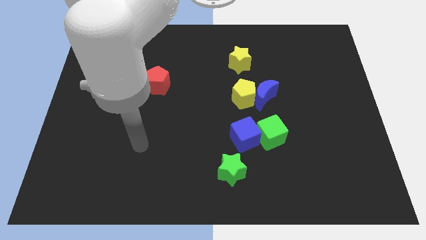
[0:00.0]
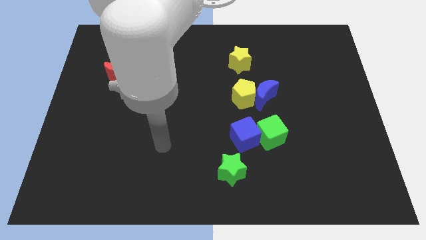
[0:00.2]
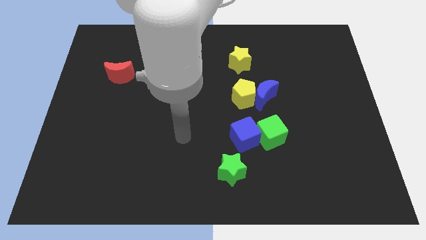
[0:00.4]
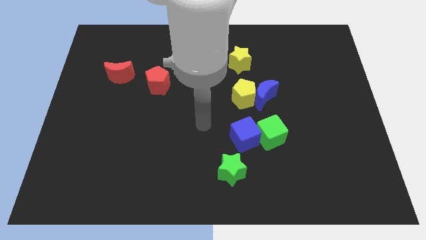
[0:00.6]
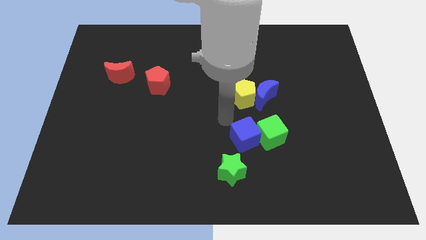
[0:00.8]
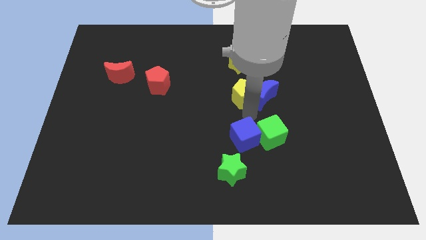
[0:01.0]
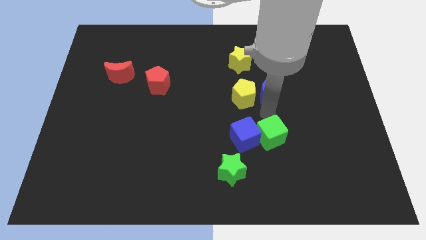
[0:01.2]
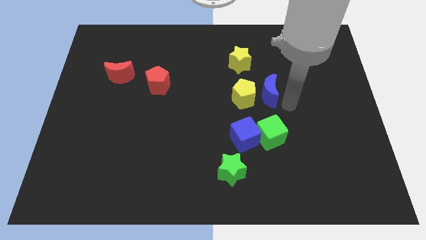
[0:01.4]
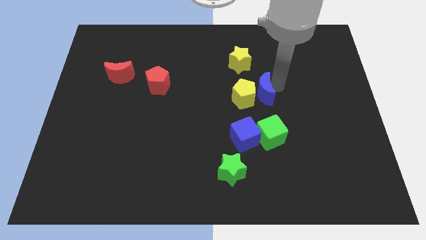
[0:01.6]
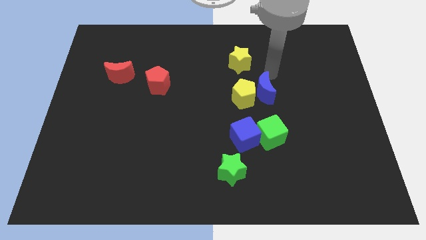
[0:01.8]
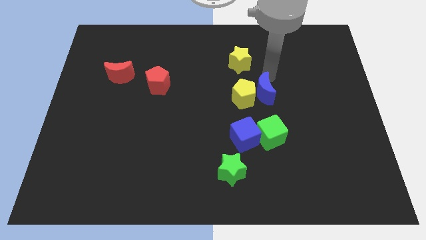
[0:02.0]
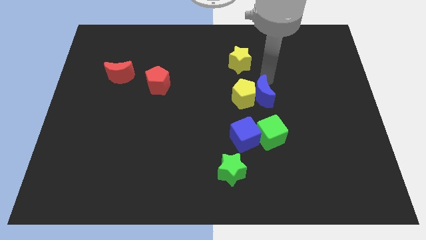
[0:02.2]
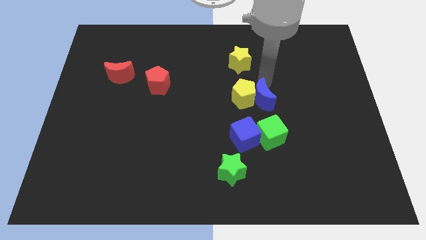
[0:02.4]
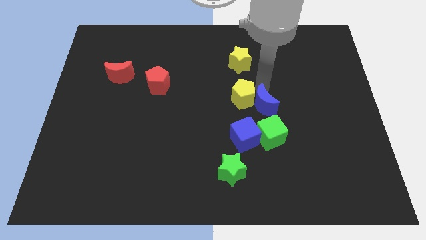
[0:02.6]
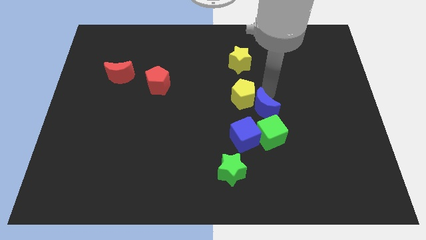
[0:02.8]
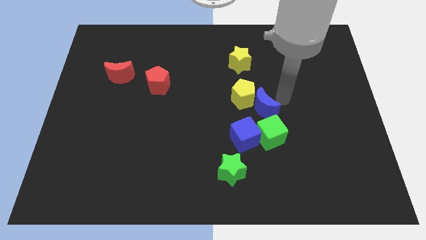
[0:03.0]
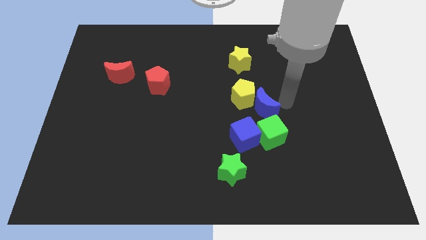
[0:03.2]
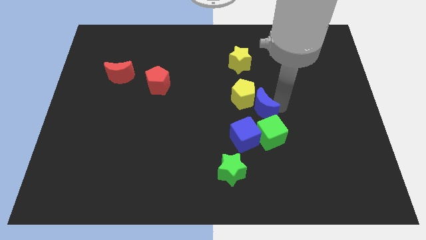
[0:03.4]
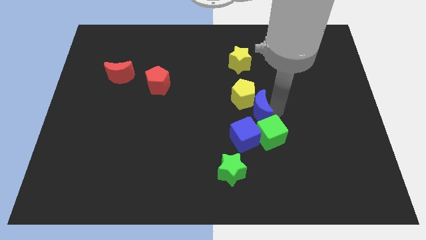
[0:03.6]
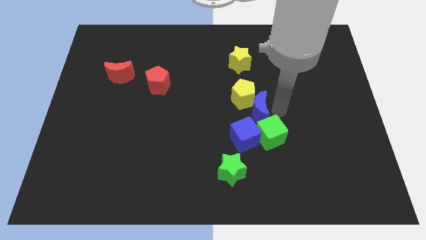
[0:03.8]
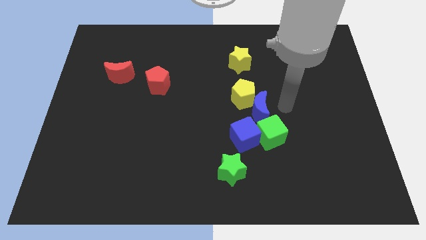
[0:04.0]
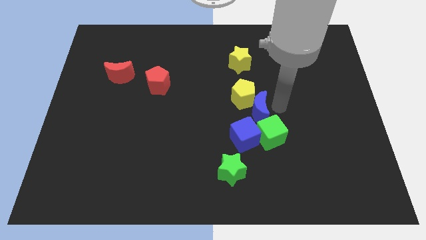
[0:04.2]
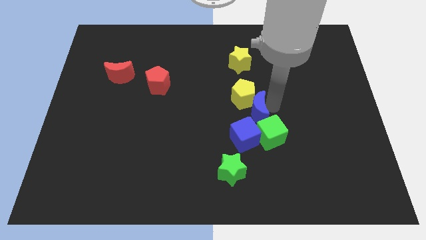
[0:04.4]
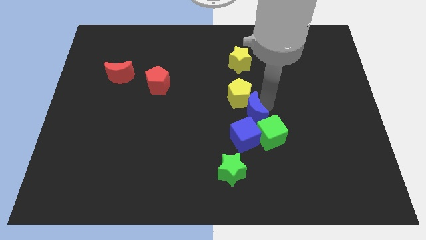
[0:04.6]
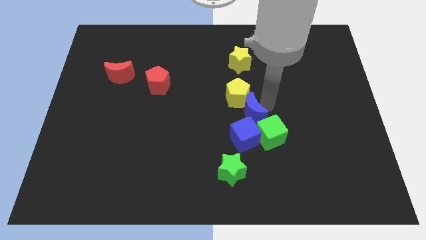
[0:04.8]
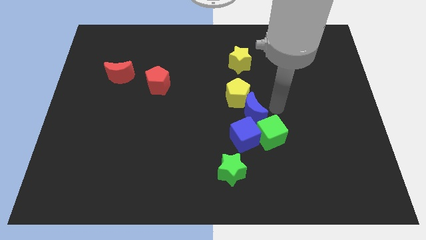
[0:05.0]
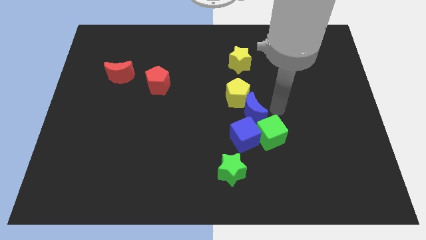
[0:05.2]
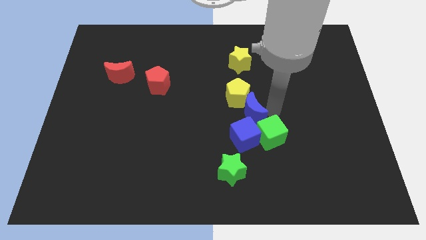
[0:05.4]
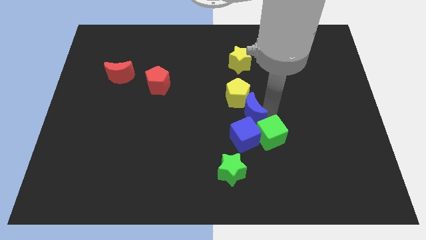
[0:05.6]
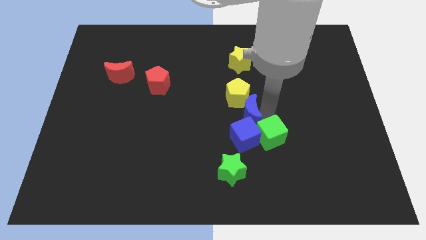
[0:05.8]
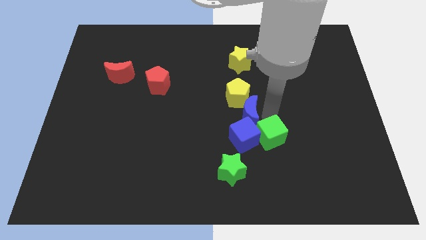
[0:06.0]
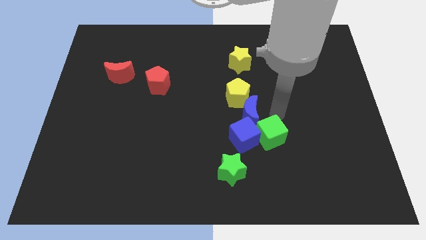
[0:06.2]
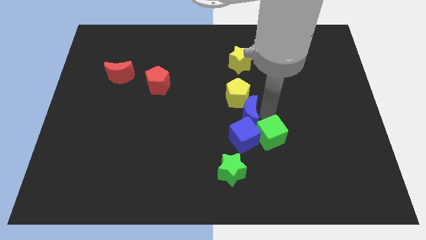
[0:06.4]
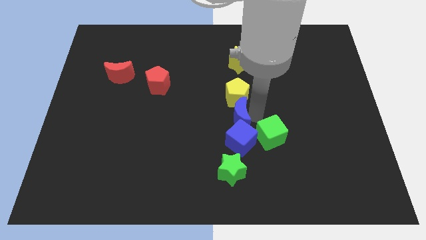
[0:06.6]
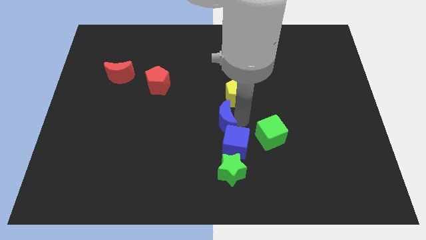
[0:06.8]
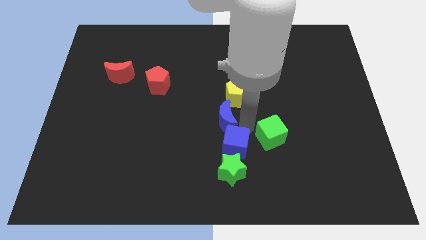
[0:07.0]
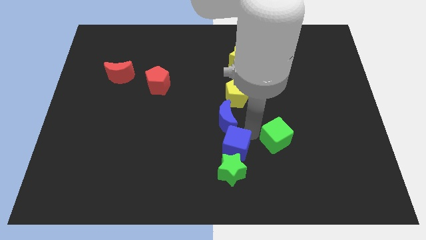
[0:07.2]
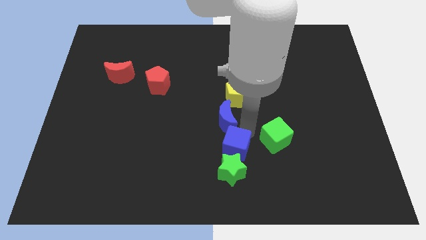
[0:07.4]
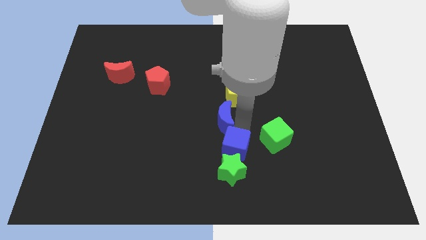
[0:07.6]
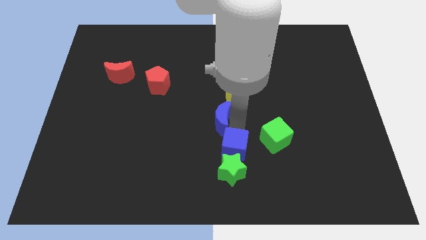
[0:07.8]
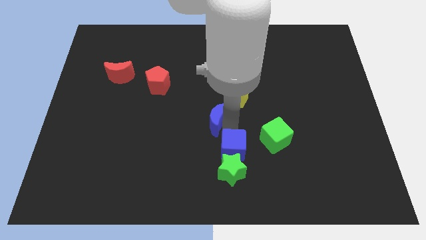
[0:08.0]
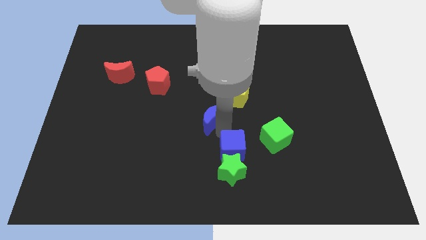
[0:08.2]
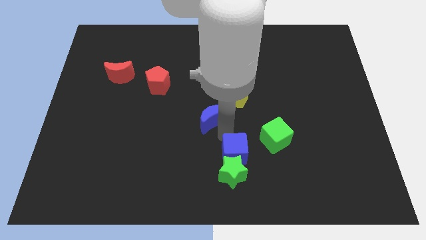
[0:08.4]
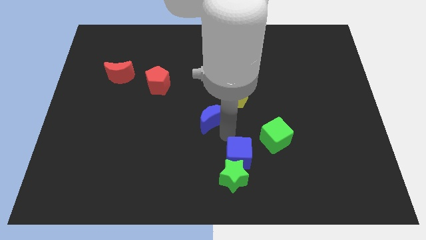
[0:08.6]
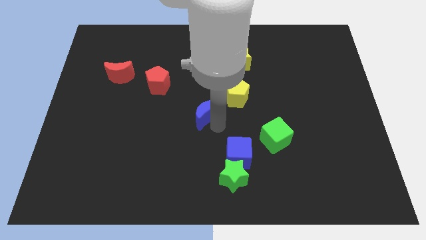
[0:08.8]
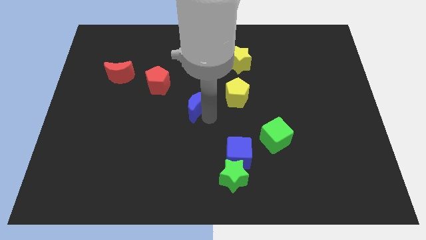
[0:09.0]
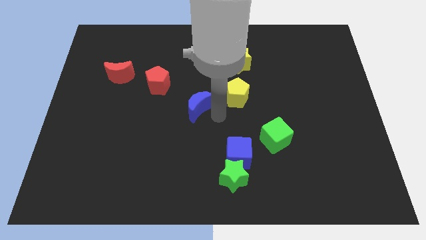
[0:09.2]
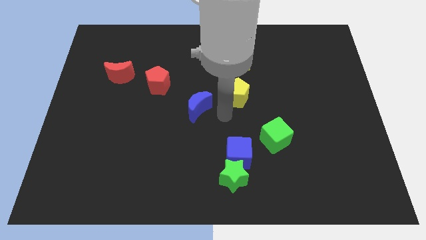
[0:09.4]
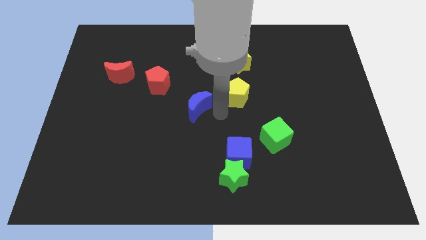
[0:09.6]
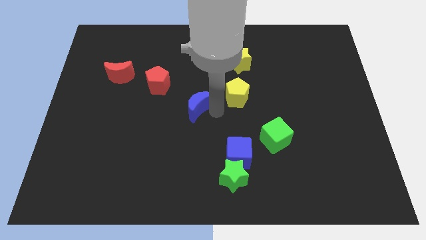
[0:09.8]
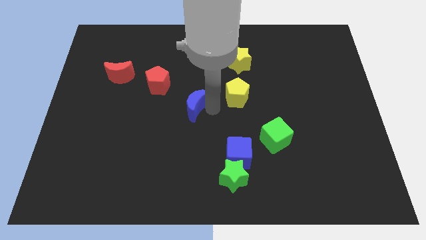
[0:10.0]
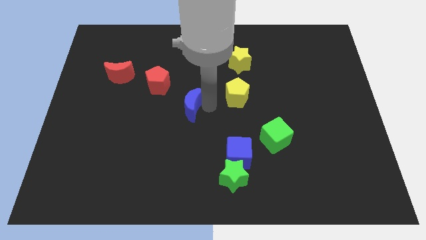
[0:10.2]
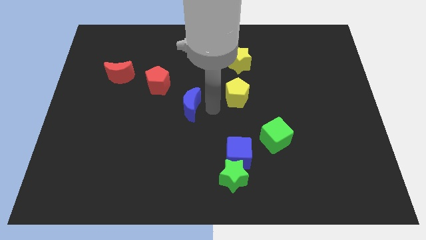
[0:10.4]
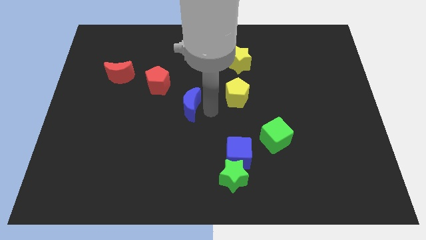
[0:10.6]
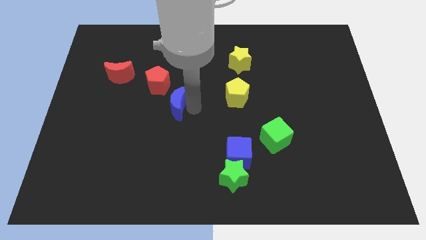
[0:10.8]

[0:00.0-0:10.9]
slide the blue moon left

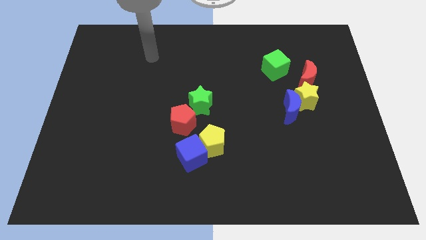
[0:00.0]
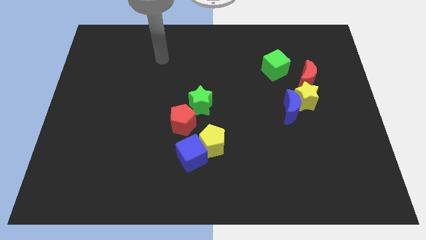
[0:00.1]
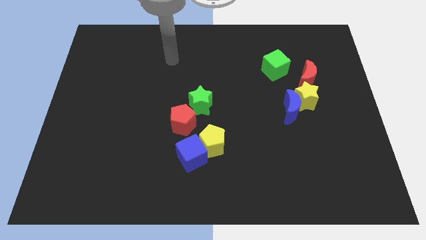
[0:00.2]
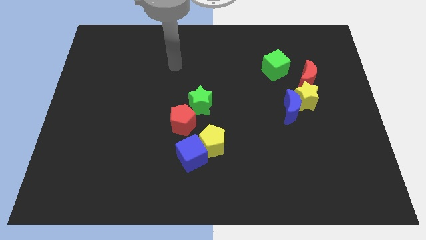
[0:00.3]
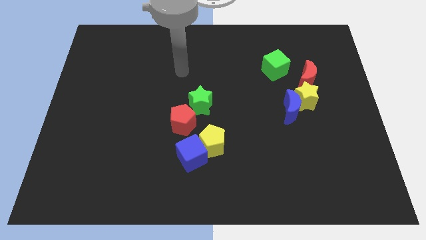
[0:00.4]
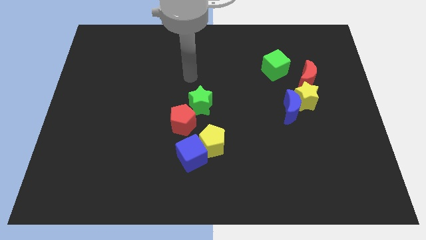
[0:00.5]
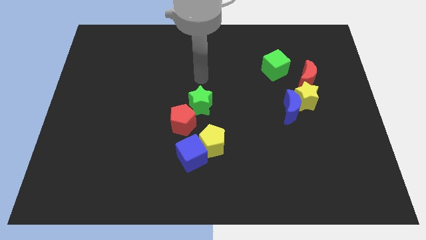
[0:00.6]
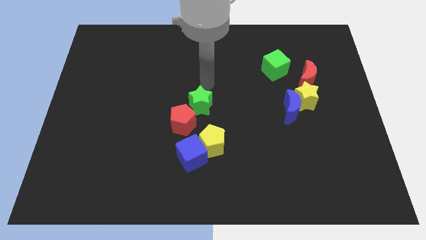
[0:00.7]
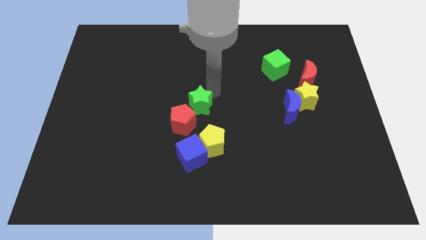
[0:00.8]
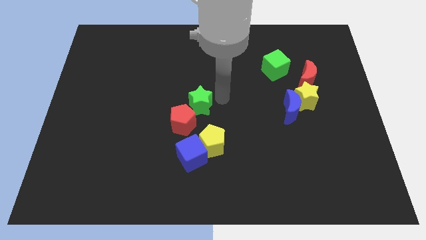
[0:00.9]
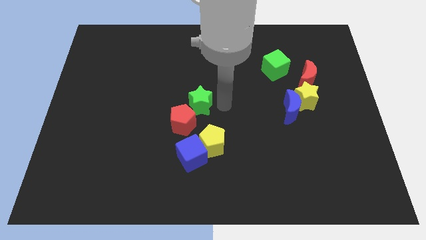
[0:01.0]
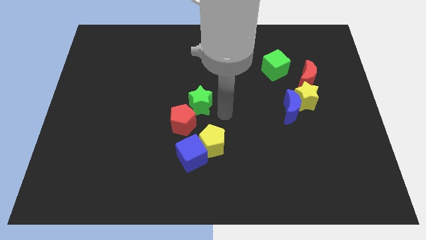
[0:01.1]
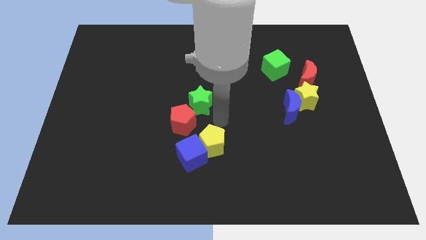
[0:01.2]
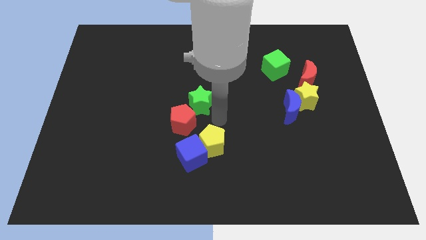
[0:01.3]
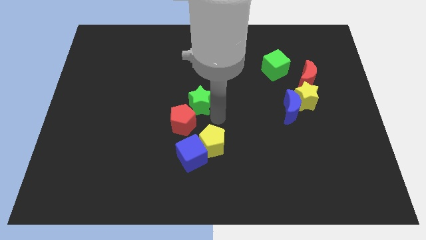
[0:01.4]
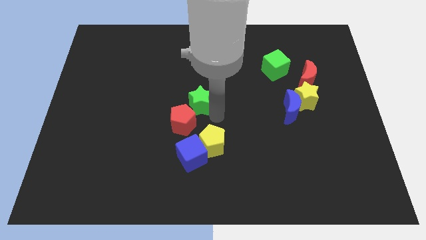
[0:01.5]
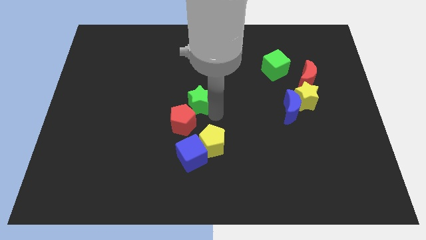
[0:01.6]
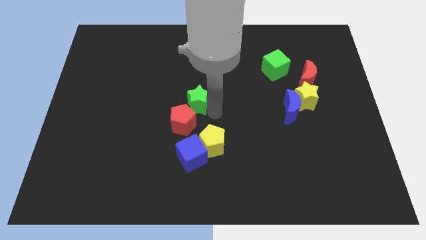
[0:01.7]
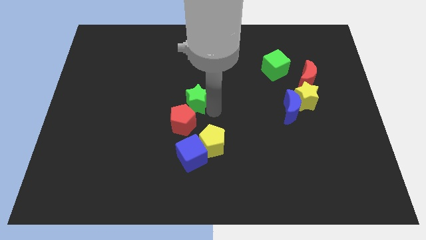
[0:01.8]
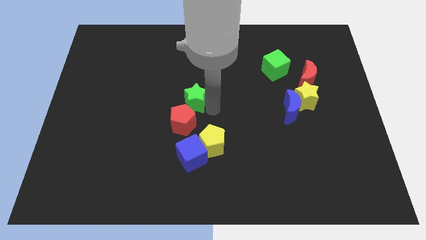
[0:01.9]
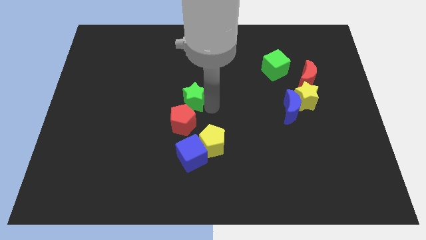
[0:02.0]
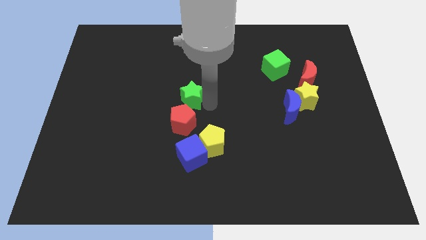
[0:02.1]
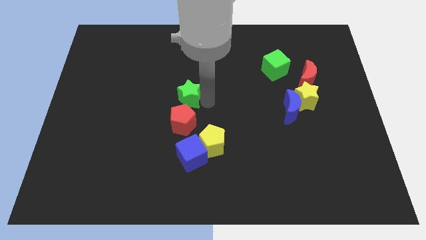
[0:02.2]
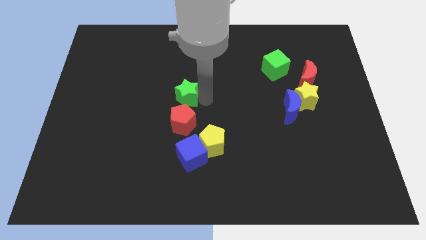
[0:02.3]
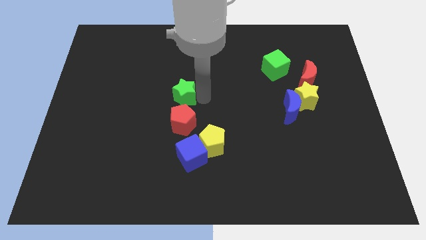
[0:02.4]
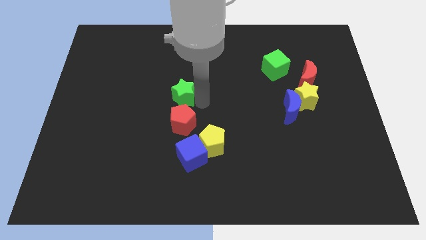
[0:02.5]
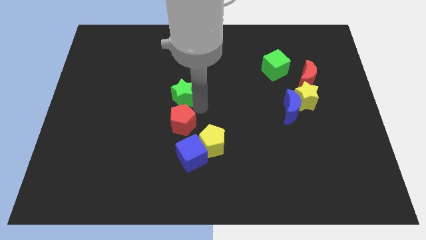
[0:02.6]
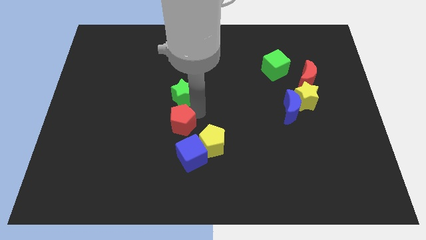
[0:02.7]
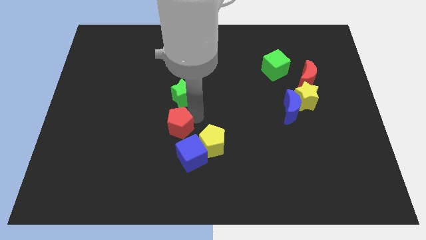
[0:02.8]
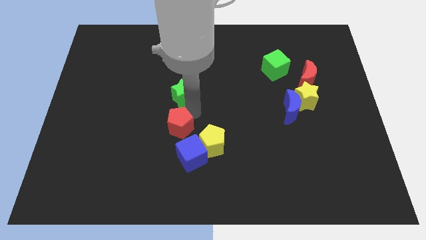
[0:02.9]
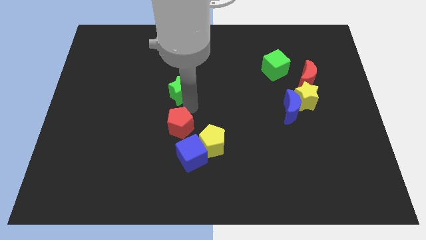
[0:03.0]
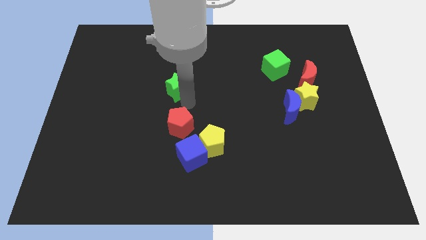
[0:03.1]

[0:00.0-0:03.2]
slightly push the green star diagonally upwards and left
